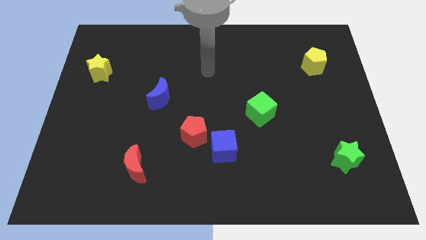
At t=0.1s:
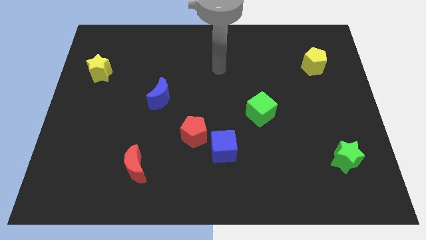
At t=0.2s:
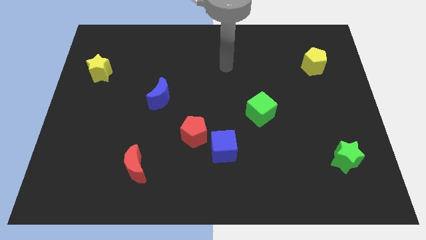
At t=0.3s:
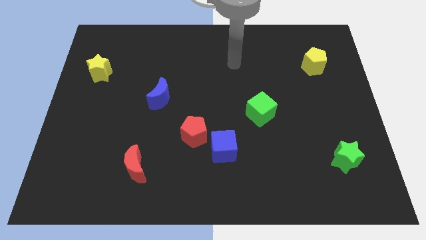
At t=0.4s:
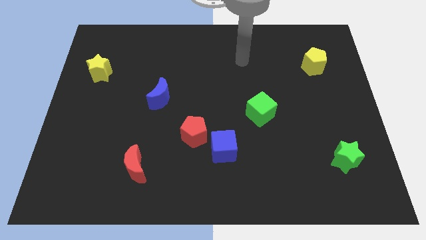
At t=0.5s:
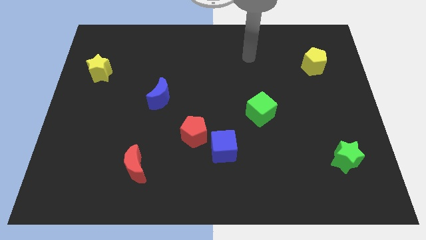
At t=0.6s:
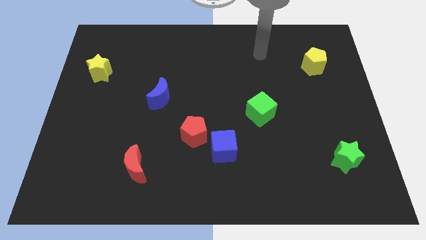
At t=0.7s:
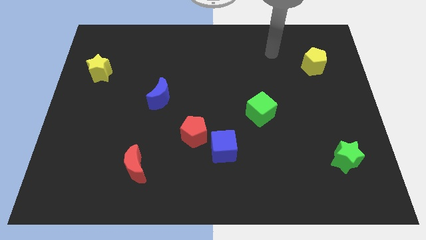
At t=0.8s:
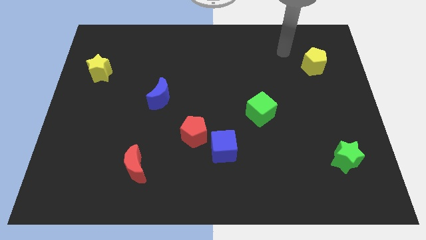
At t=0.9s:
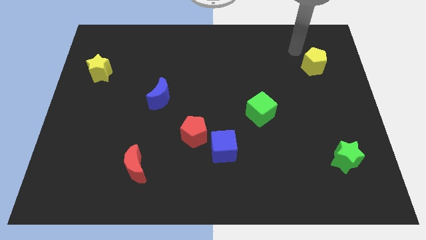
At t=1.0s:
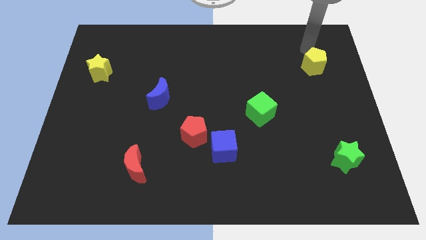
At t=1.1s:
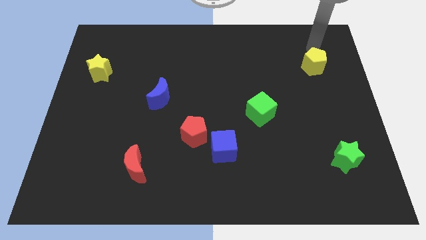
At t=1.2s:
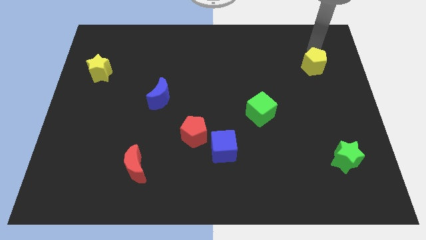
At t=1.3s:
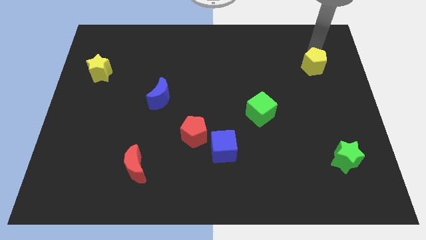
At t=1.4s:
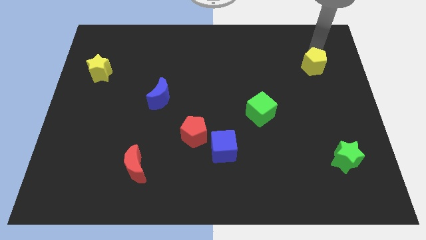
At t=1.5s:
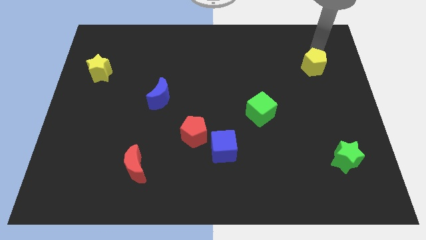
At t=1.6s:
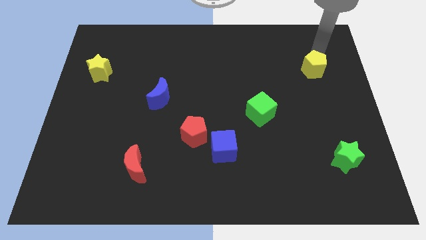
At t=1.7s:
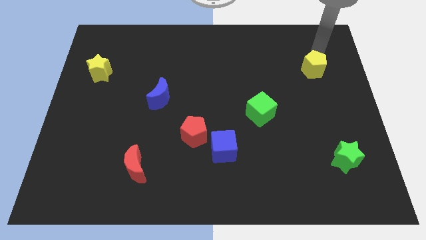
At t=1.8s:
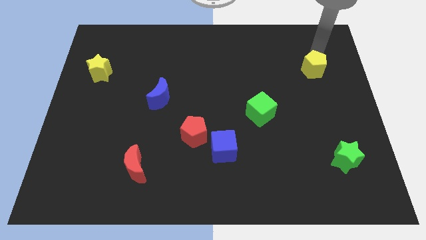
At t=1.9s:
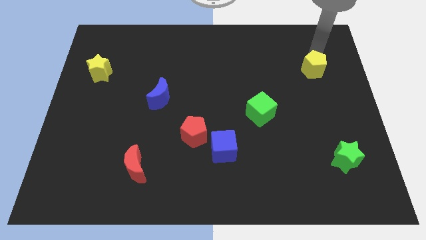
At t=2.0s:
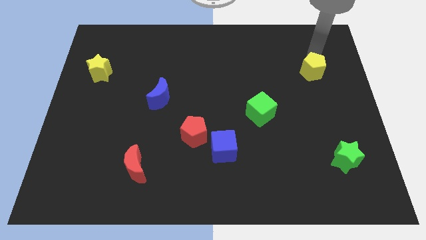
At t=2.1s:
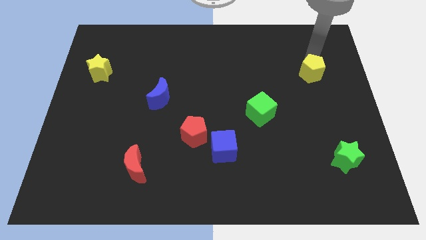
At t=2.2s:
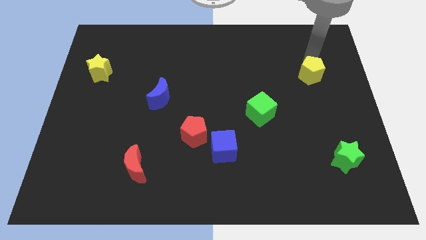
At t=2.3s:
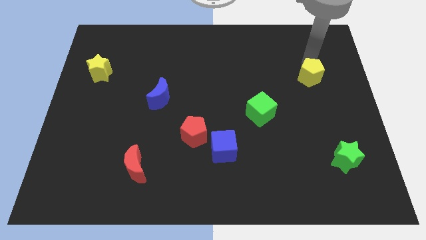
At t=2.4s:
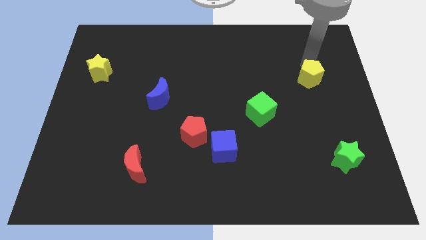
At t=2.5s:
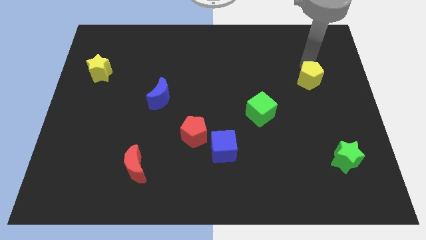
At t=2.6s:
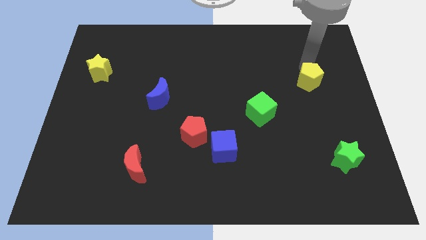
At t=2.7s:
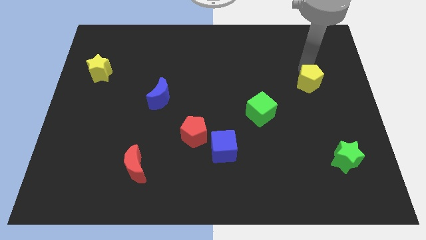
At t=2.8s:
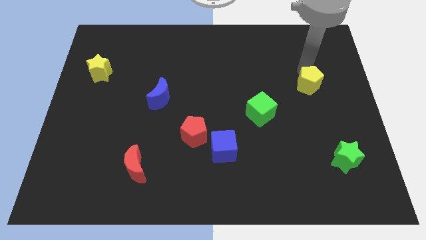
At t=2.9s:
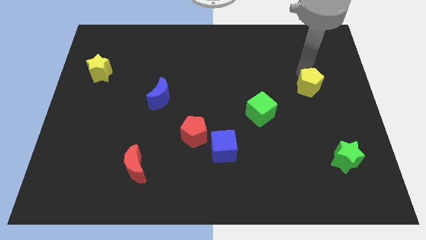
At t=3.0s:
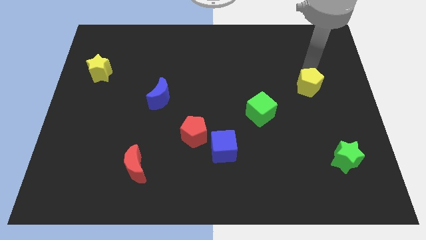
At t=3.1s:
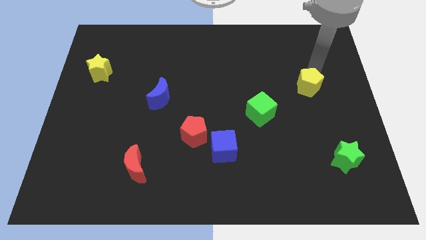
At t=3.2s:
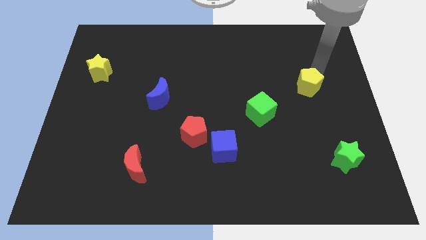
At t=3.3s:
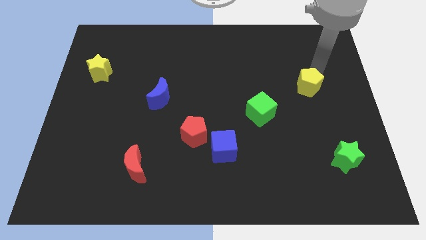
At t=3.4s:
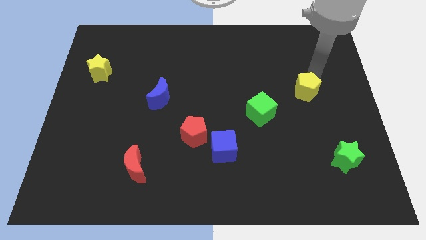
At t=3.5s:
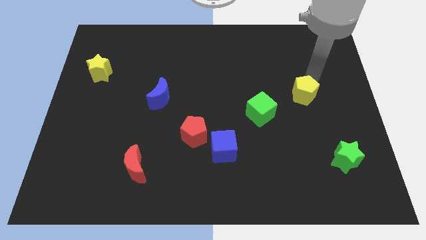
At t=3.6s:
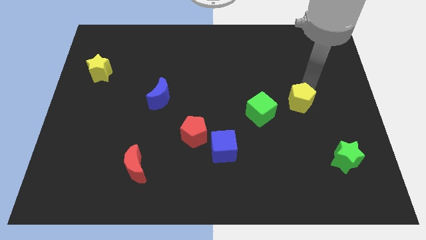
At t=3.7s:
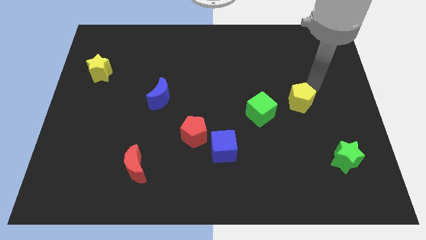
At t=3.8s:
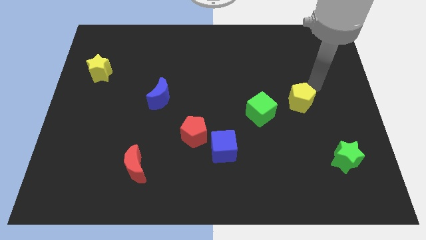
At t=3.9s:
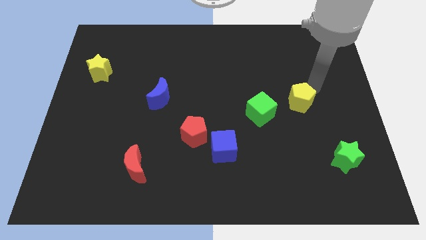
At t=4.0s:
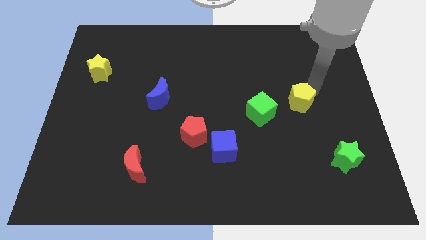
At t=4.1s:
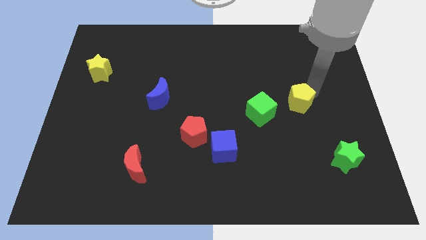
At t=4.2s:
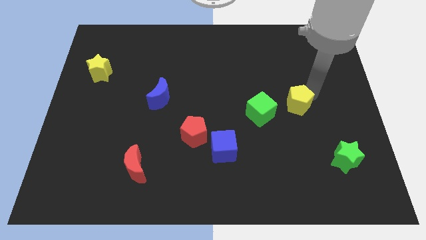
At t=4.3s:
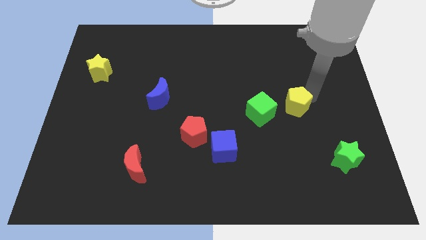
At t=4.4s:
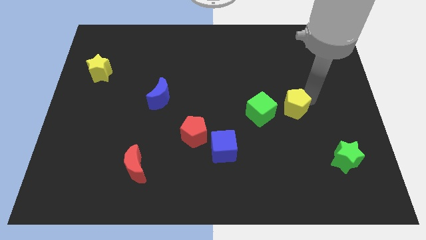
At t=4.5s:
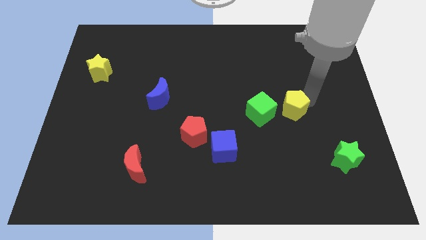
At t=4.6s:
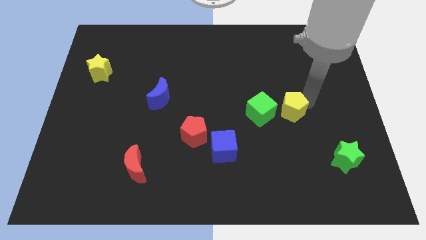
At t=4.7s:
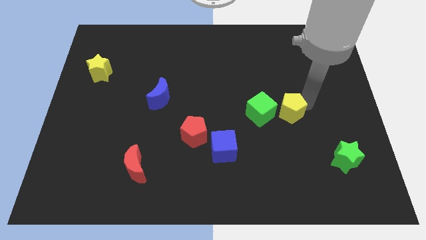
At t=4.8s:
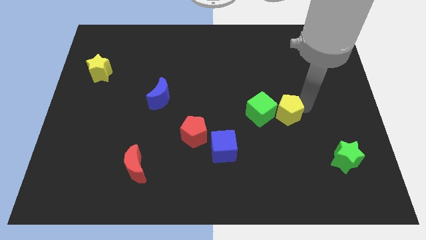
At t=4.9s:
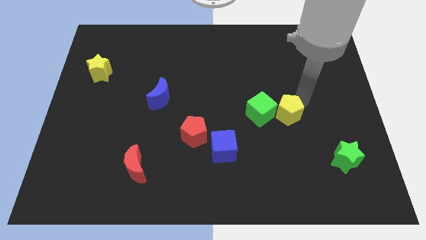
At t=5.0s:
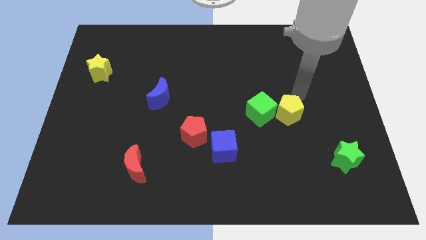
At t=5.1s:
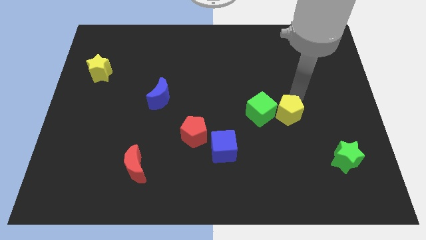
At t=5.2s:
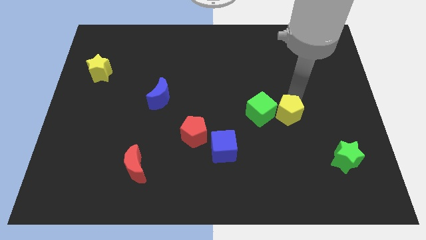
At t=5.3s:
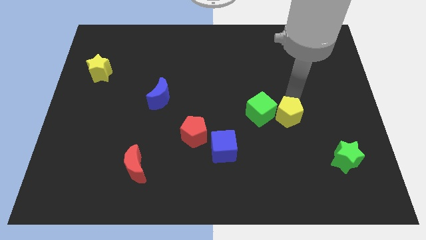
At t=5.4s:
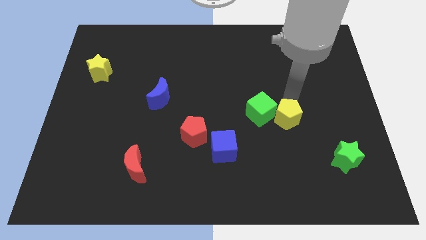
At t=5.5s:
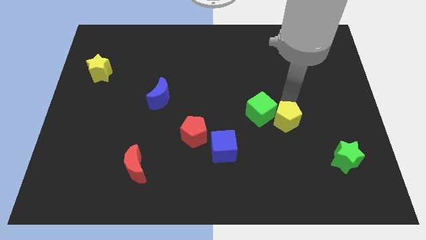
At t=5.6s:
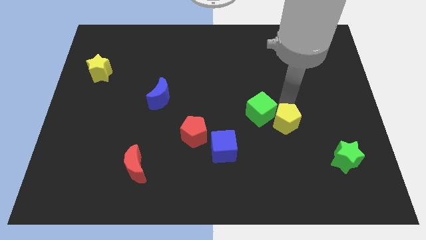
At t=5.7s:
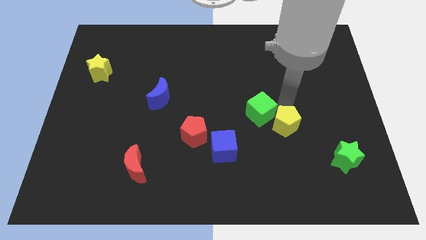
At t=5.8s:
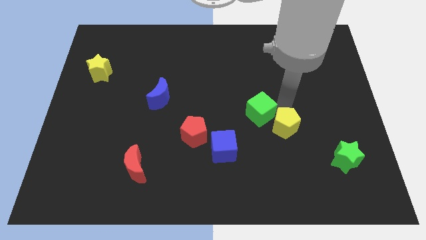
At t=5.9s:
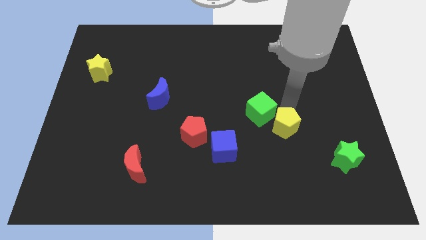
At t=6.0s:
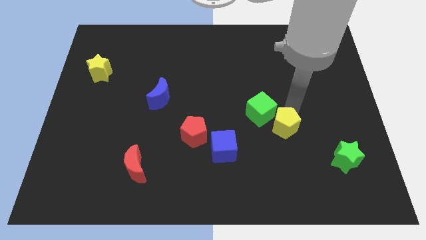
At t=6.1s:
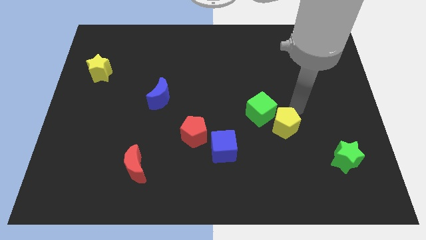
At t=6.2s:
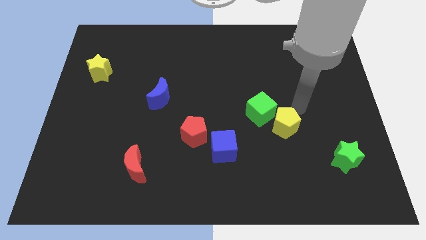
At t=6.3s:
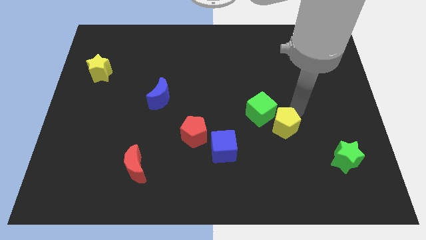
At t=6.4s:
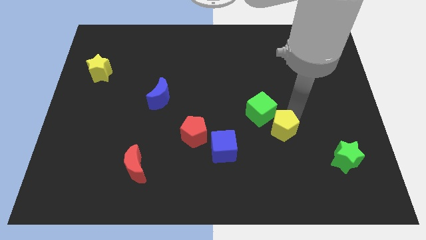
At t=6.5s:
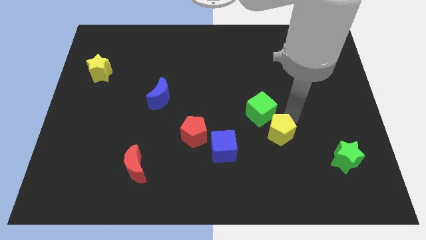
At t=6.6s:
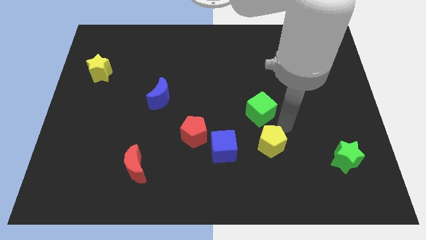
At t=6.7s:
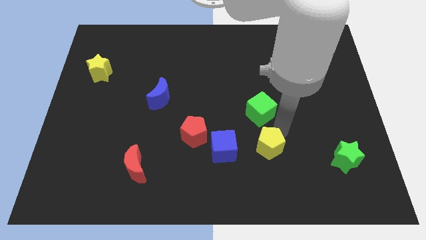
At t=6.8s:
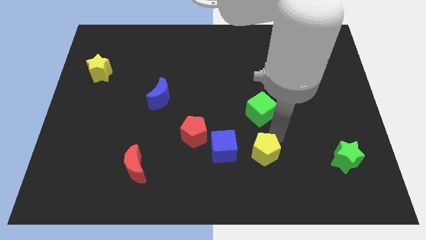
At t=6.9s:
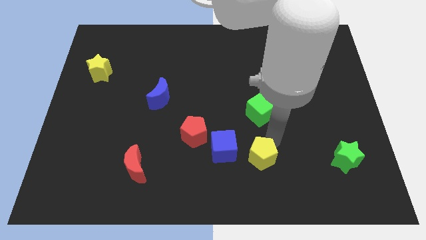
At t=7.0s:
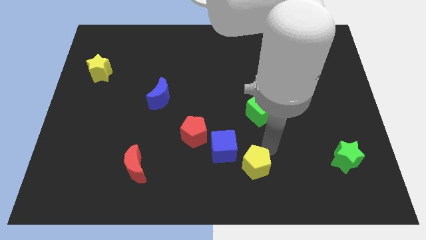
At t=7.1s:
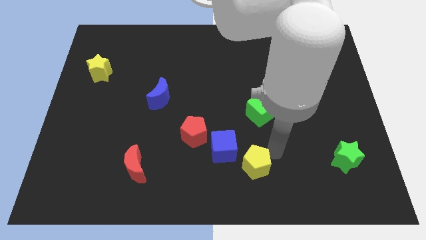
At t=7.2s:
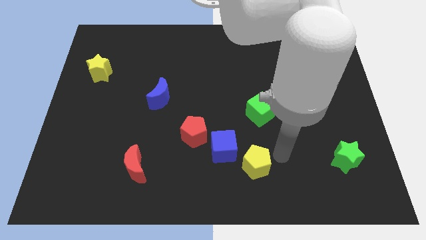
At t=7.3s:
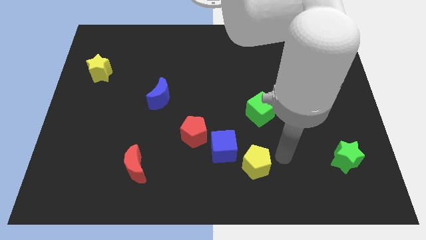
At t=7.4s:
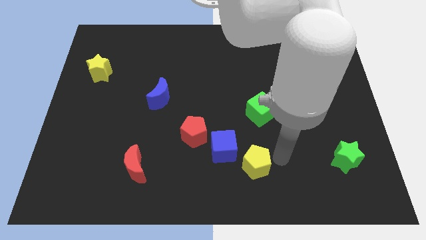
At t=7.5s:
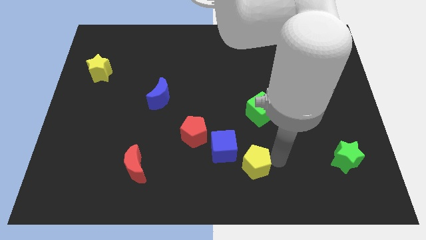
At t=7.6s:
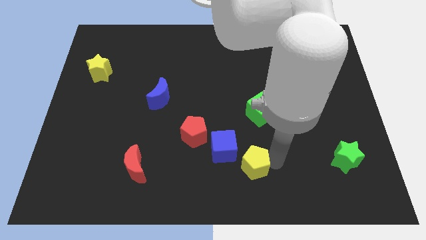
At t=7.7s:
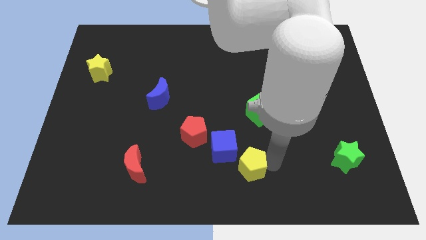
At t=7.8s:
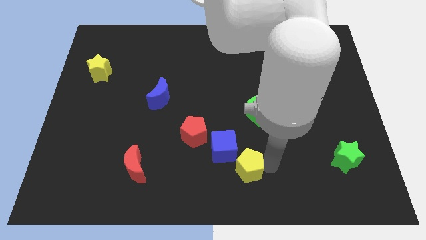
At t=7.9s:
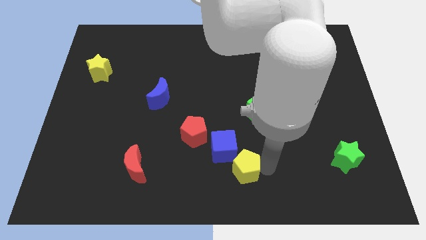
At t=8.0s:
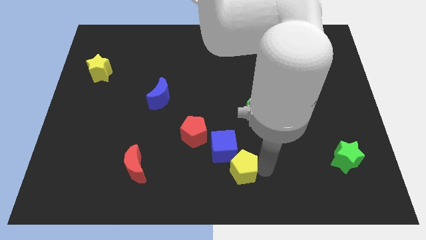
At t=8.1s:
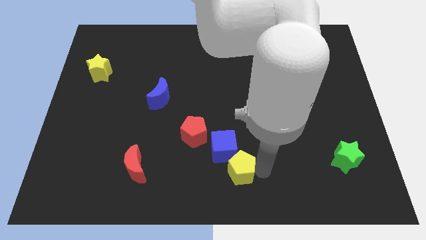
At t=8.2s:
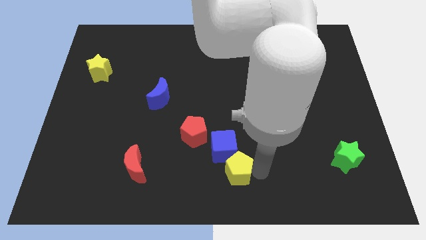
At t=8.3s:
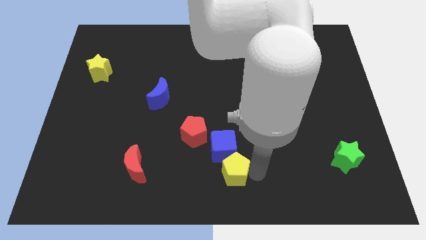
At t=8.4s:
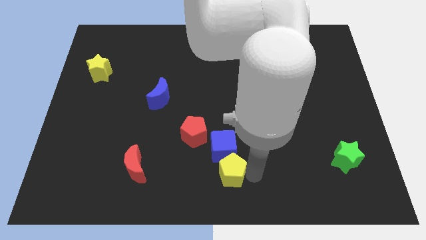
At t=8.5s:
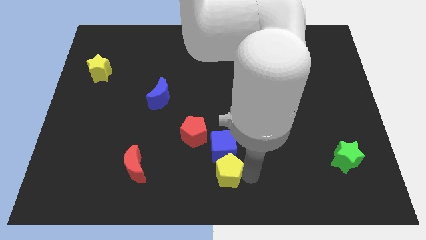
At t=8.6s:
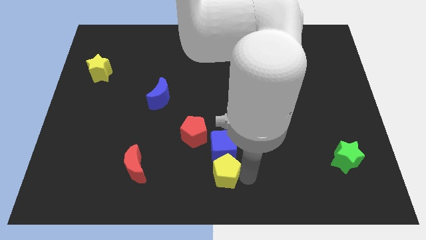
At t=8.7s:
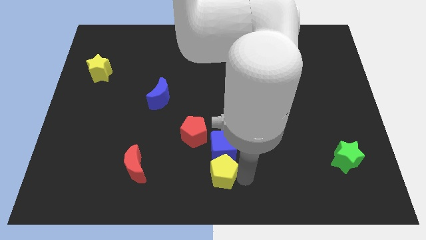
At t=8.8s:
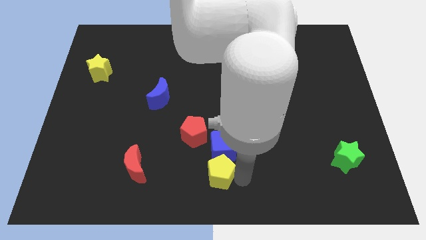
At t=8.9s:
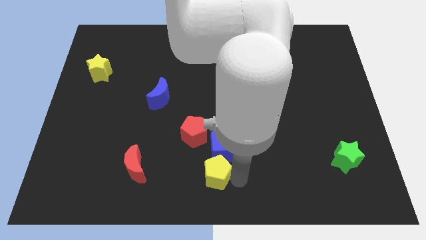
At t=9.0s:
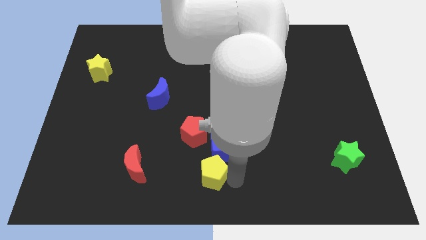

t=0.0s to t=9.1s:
put the yellow pentagon to the right of the red moon
